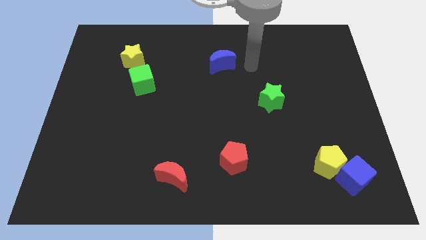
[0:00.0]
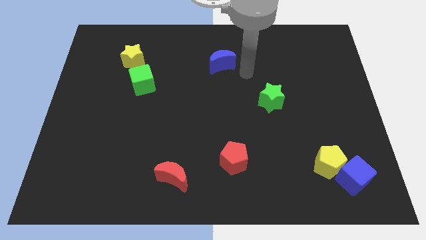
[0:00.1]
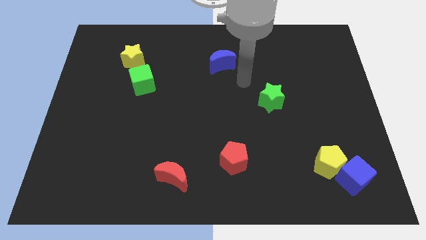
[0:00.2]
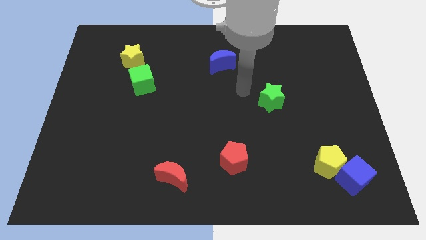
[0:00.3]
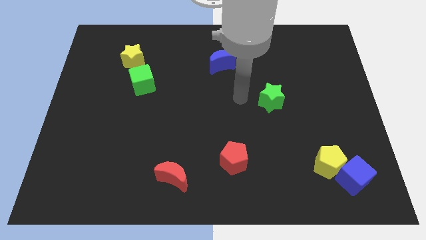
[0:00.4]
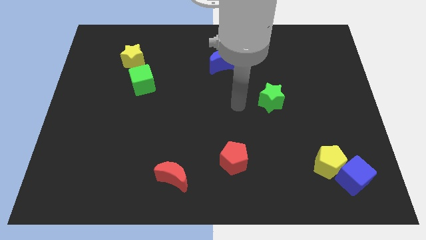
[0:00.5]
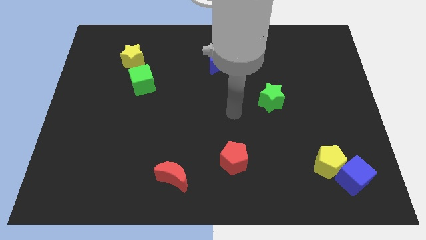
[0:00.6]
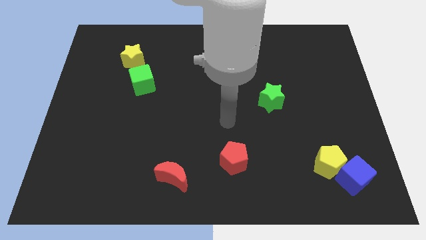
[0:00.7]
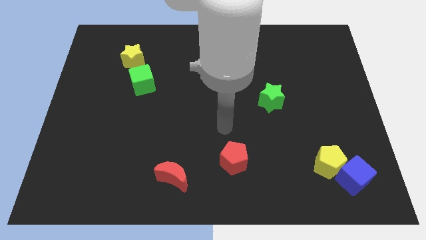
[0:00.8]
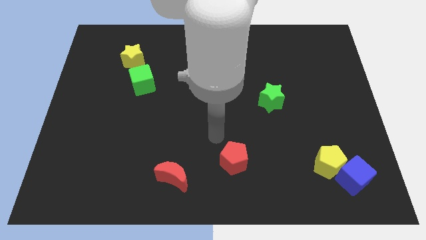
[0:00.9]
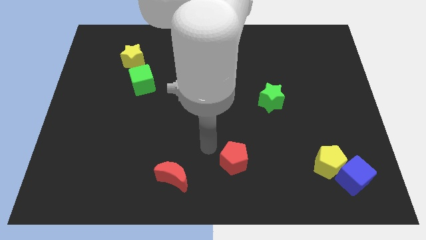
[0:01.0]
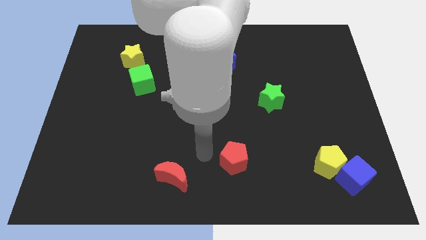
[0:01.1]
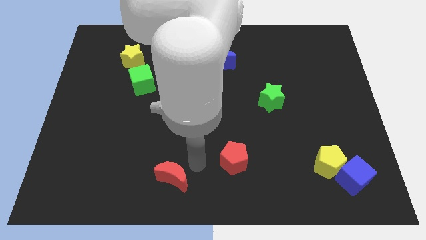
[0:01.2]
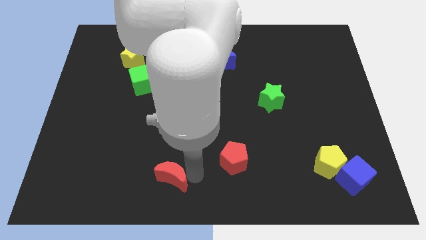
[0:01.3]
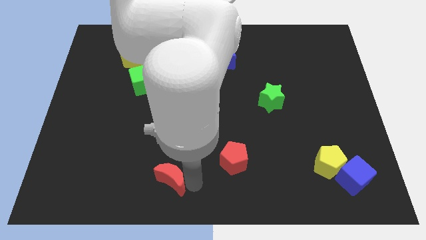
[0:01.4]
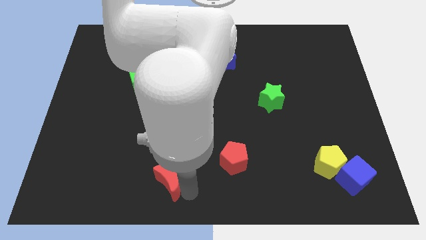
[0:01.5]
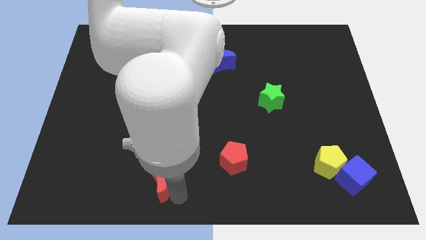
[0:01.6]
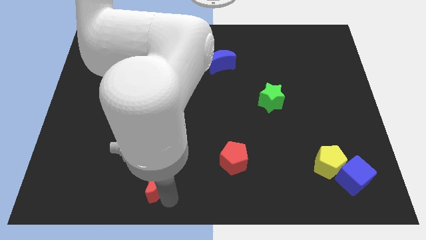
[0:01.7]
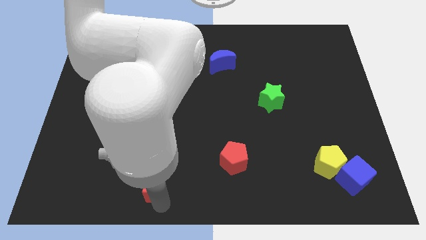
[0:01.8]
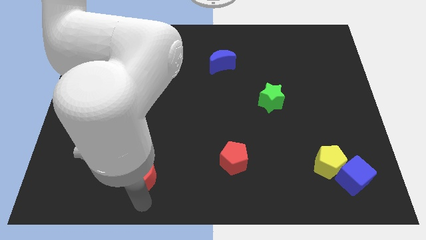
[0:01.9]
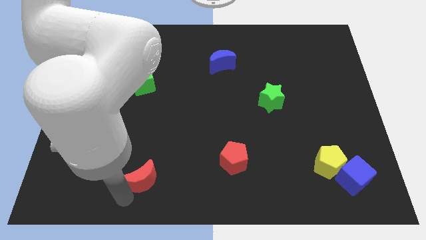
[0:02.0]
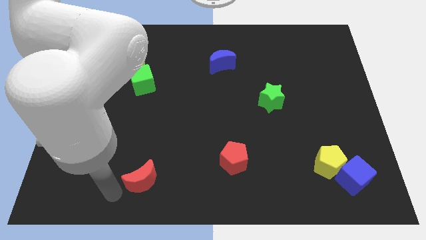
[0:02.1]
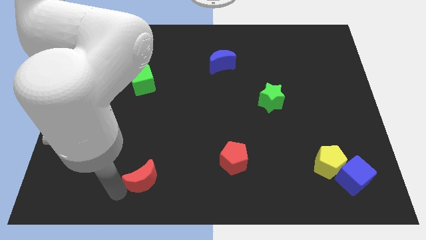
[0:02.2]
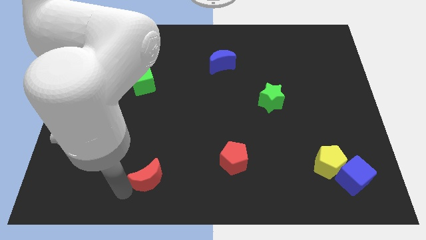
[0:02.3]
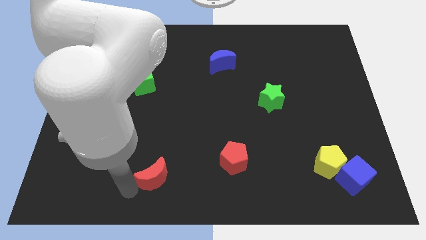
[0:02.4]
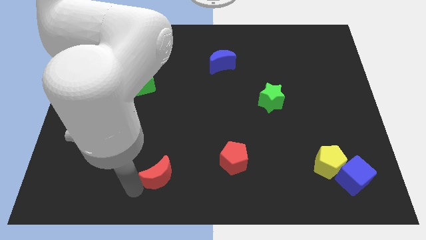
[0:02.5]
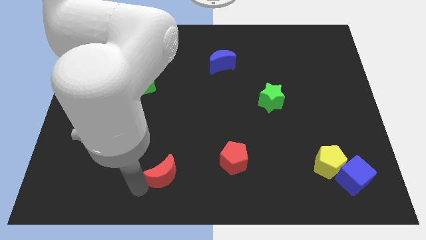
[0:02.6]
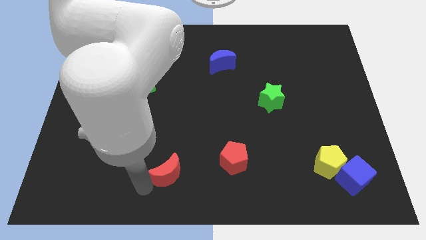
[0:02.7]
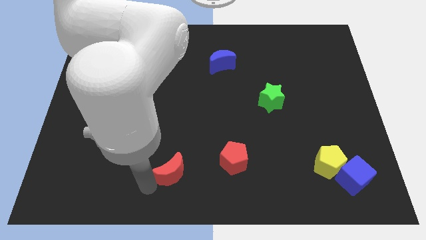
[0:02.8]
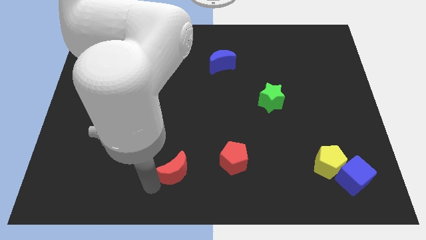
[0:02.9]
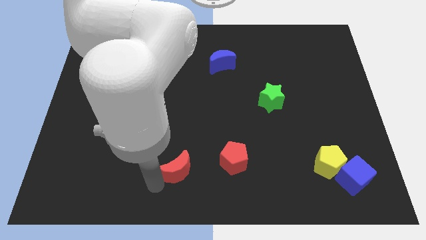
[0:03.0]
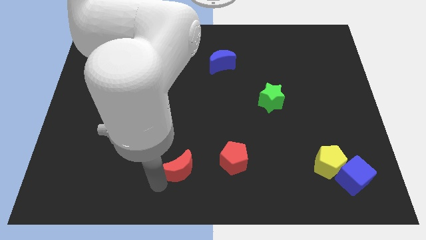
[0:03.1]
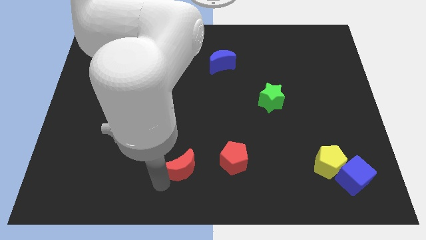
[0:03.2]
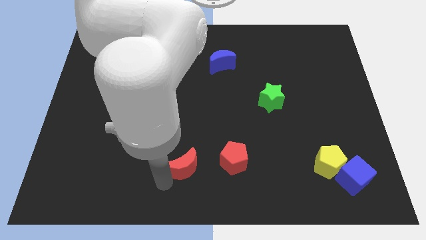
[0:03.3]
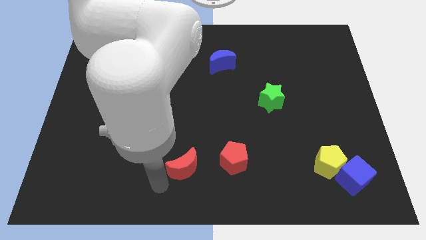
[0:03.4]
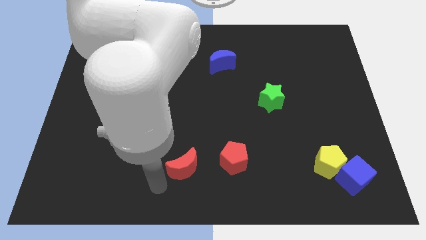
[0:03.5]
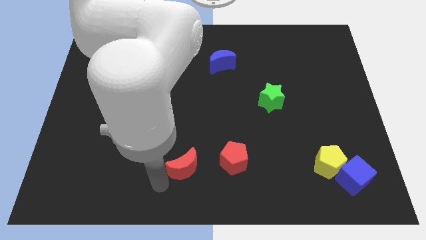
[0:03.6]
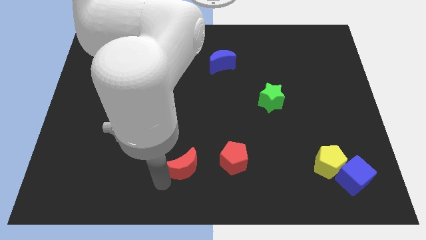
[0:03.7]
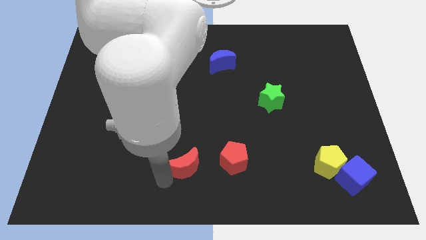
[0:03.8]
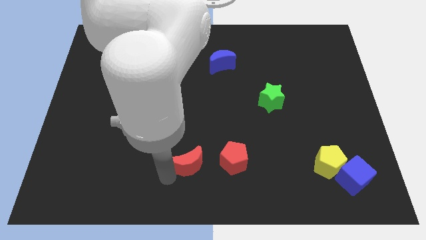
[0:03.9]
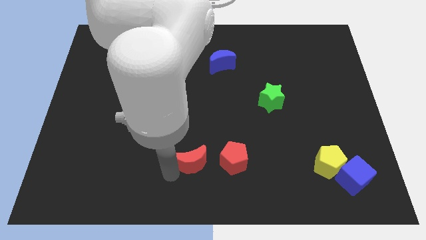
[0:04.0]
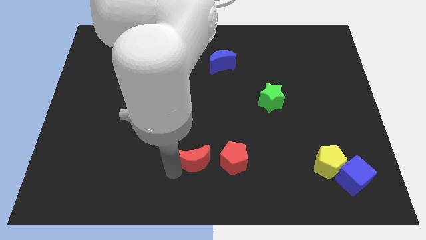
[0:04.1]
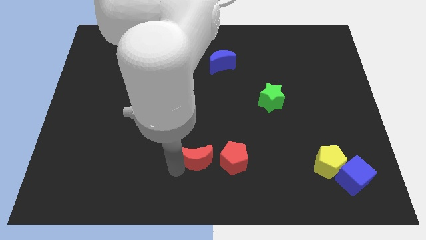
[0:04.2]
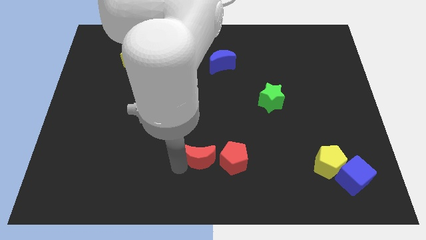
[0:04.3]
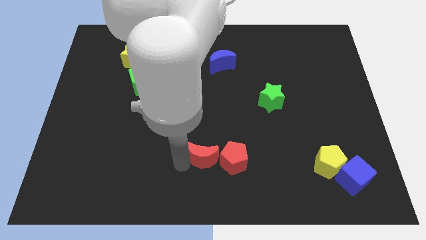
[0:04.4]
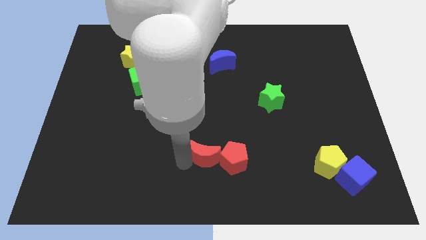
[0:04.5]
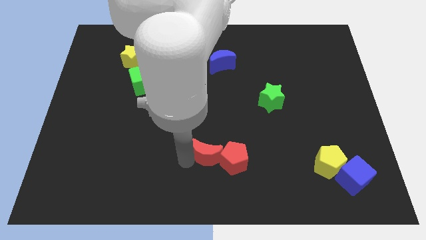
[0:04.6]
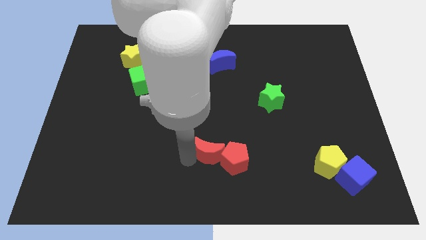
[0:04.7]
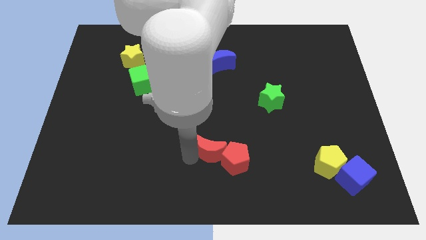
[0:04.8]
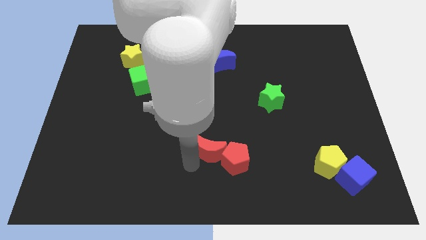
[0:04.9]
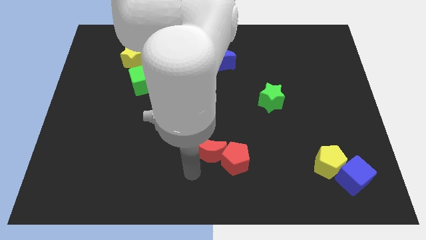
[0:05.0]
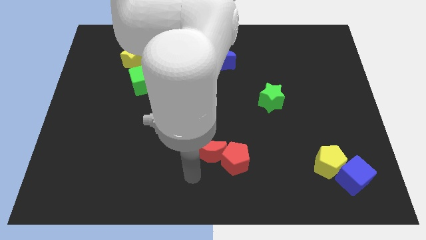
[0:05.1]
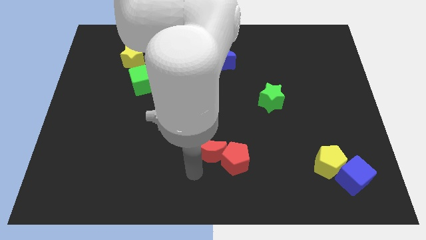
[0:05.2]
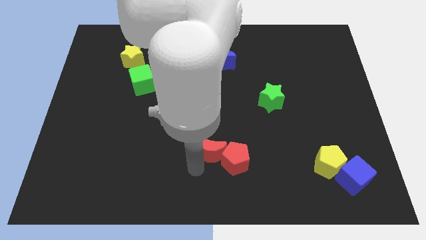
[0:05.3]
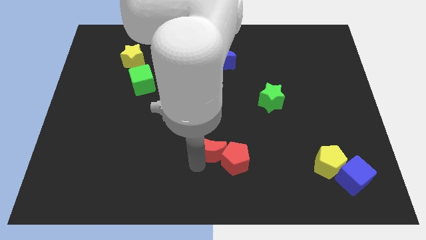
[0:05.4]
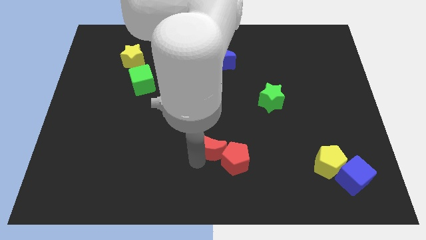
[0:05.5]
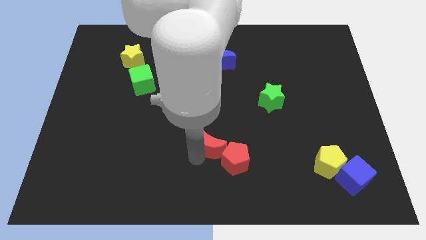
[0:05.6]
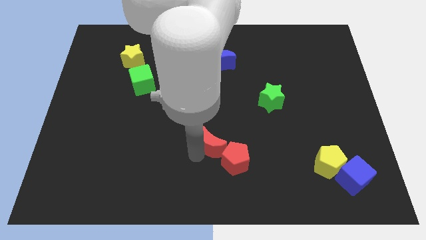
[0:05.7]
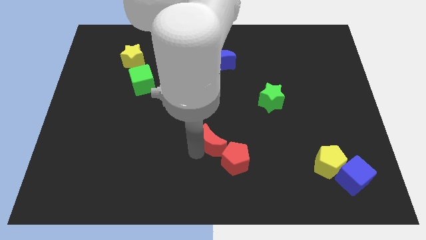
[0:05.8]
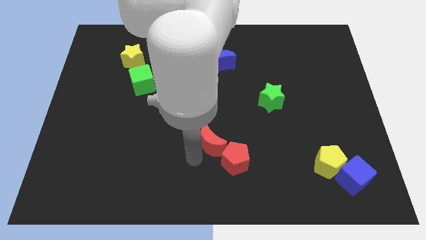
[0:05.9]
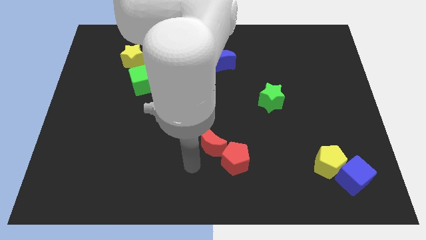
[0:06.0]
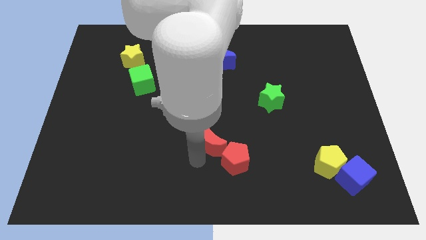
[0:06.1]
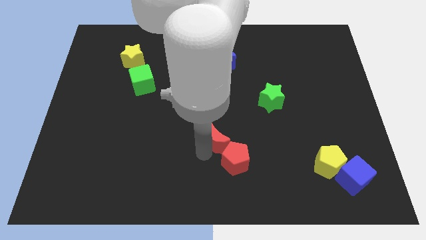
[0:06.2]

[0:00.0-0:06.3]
push the red moon above the red pentagon

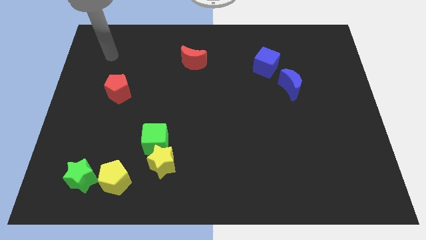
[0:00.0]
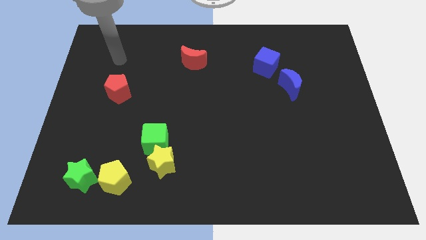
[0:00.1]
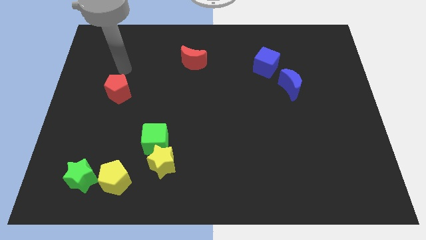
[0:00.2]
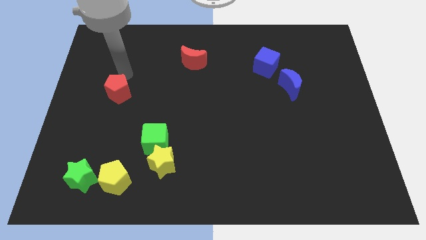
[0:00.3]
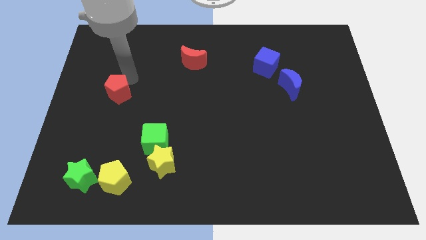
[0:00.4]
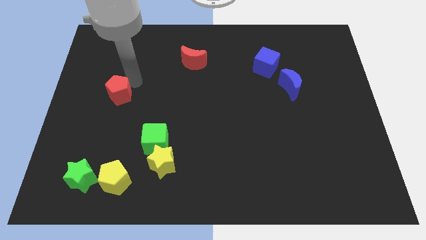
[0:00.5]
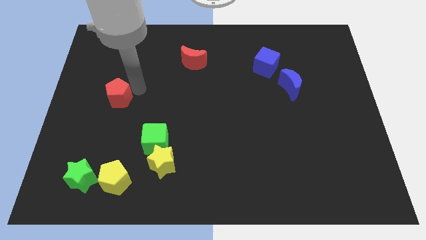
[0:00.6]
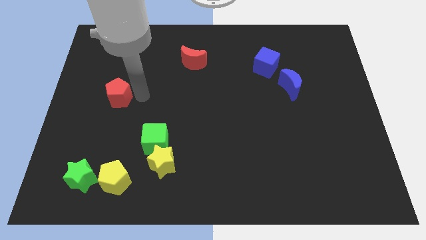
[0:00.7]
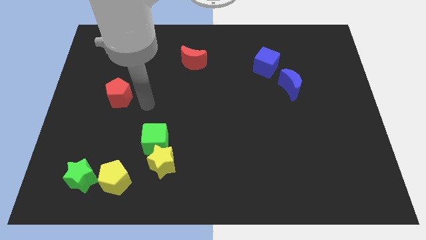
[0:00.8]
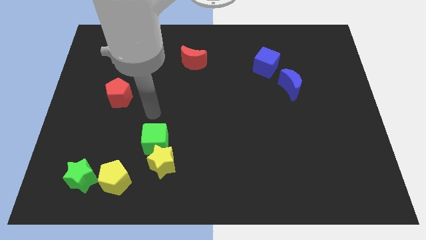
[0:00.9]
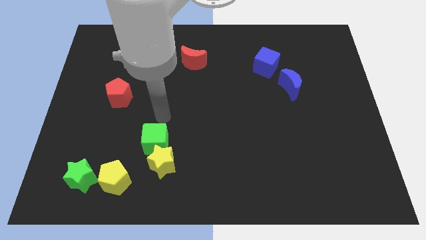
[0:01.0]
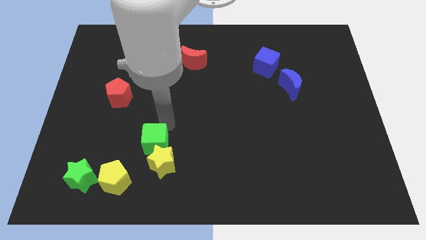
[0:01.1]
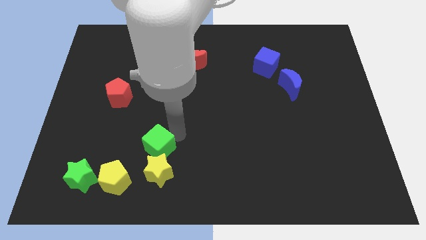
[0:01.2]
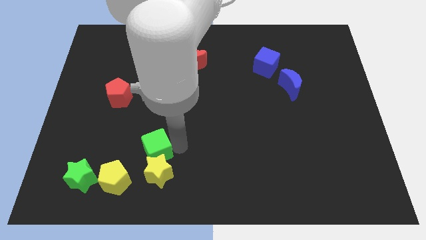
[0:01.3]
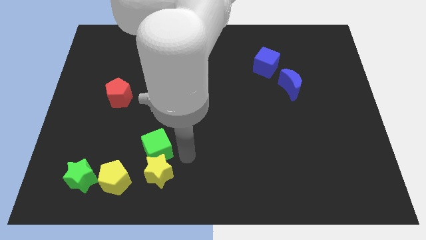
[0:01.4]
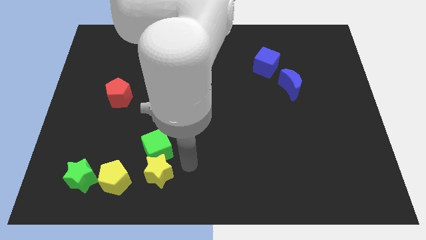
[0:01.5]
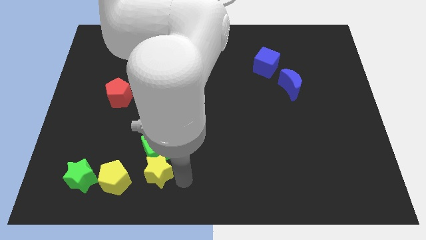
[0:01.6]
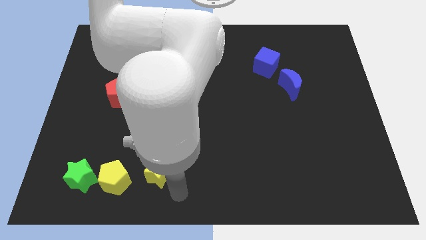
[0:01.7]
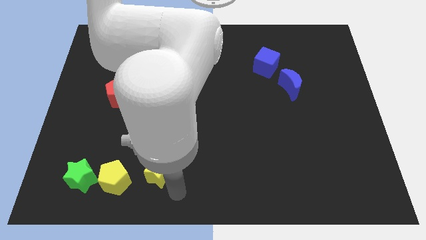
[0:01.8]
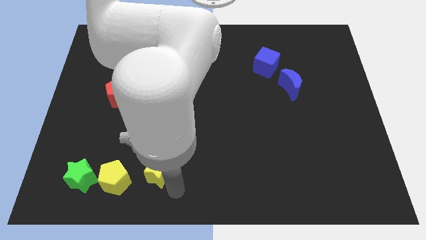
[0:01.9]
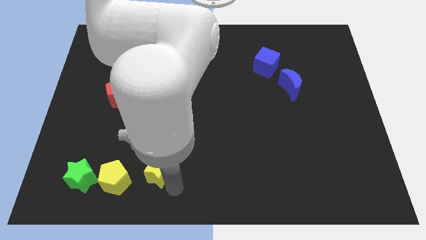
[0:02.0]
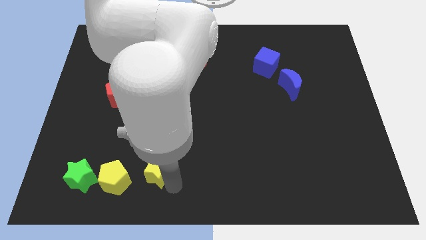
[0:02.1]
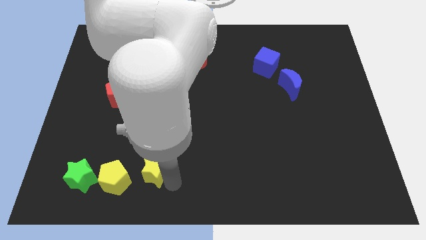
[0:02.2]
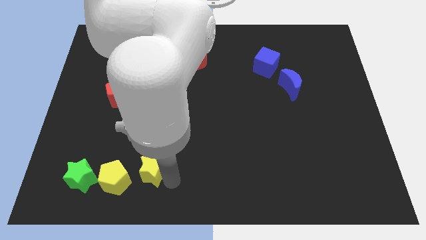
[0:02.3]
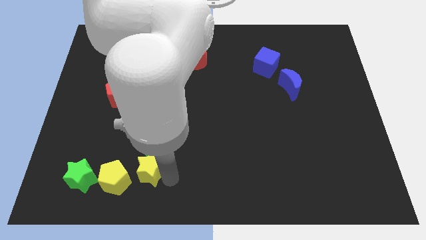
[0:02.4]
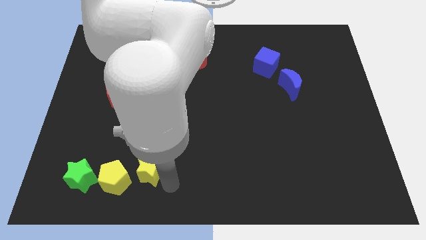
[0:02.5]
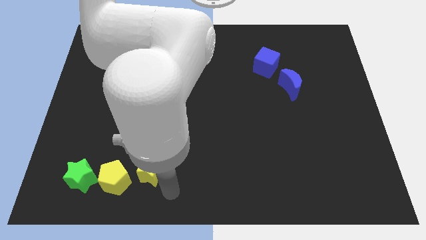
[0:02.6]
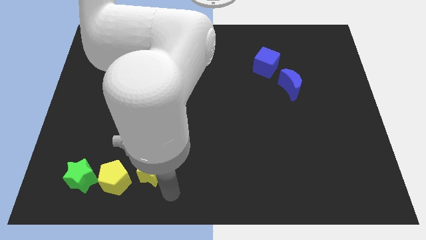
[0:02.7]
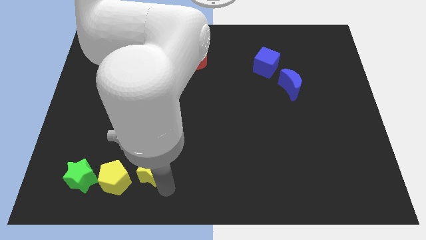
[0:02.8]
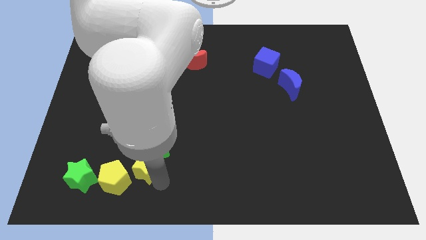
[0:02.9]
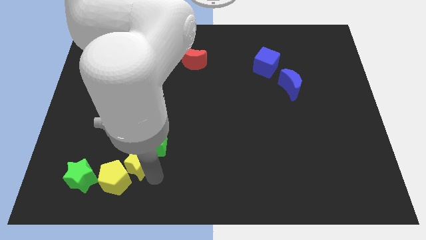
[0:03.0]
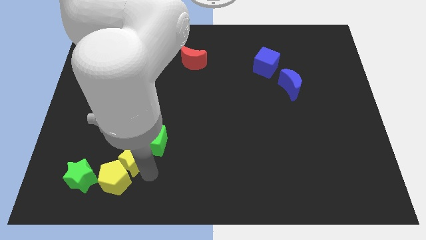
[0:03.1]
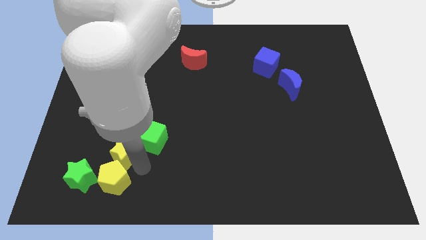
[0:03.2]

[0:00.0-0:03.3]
move the yellow star to the left side of the green cube
